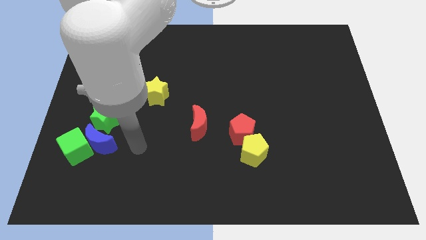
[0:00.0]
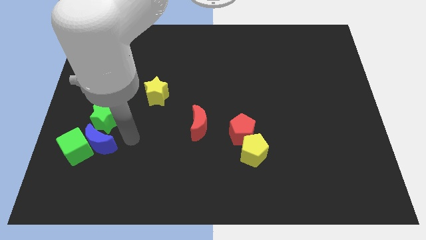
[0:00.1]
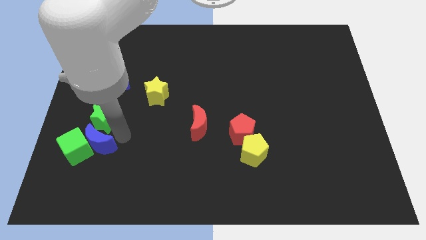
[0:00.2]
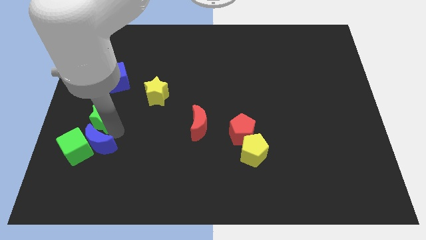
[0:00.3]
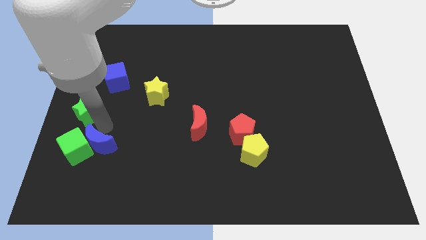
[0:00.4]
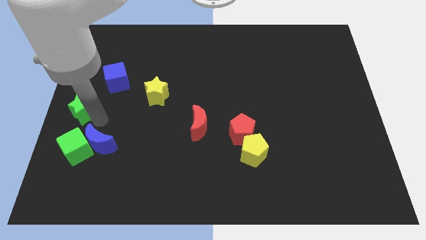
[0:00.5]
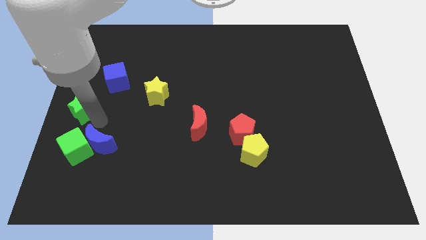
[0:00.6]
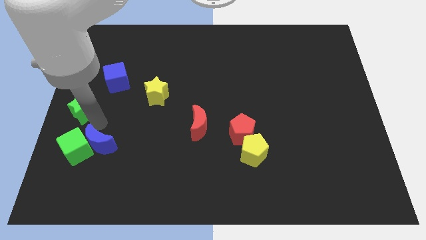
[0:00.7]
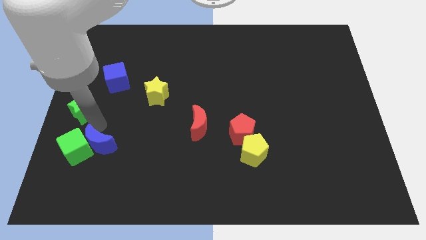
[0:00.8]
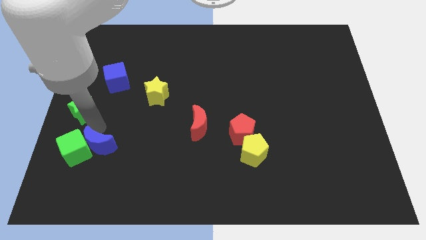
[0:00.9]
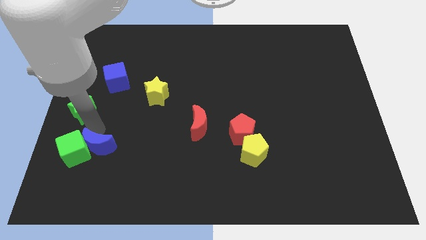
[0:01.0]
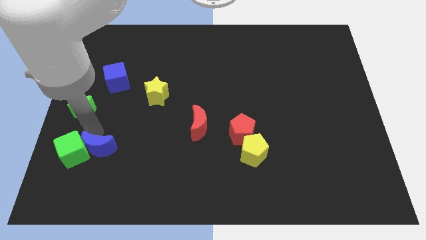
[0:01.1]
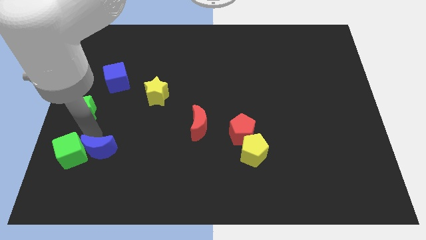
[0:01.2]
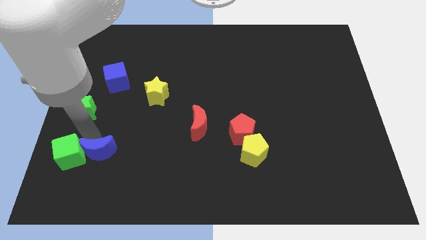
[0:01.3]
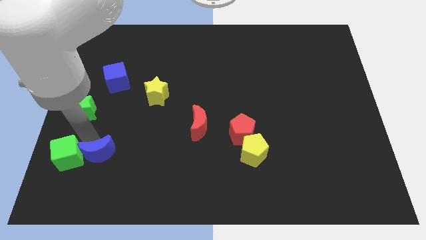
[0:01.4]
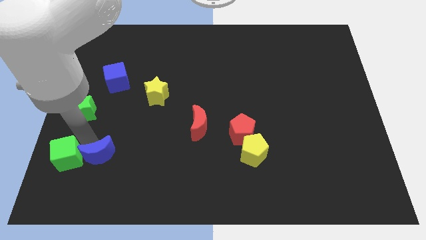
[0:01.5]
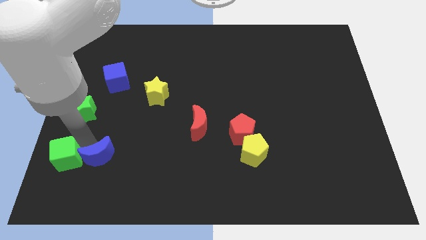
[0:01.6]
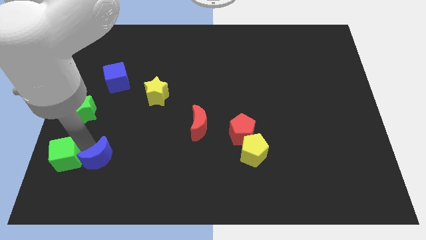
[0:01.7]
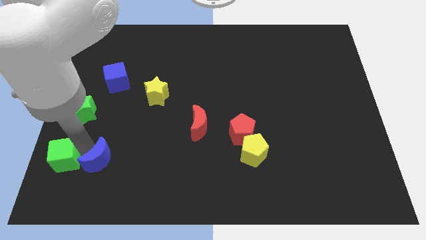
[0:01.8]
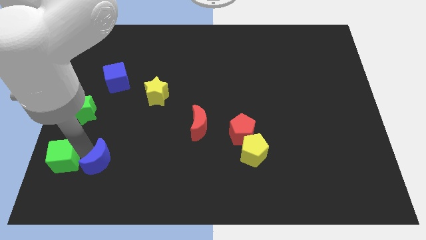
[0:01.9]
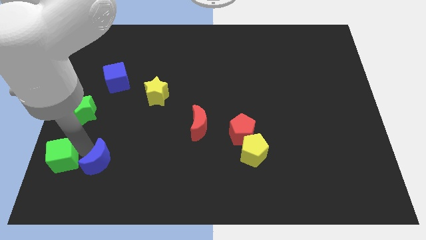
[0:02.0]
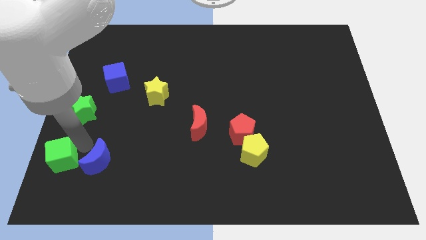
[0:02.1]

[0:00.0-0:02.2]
separate the blue moon from the green cube and green star

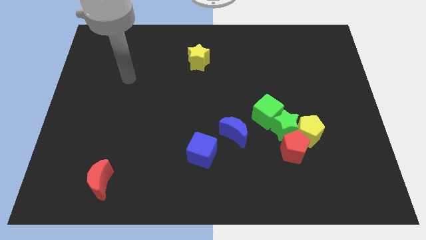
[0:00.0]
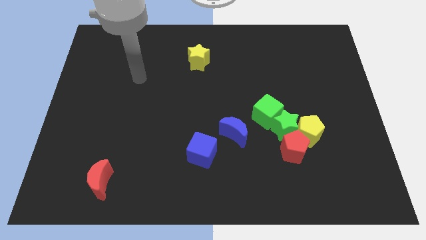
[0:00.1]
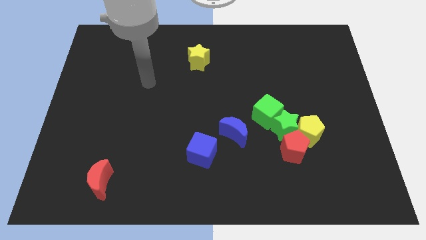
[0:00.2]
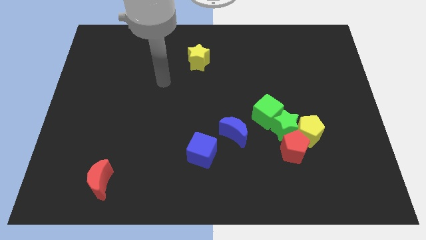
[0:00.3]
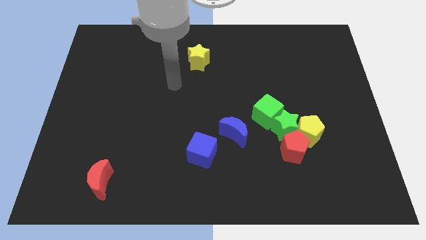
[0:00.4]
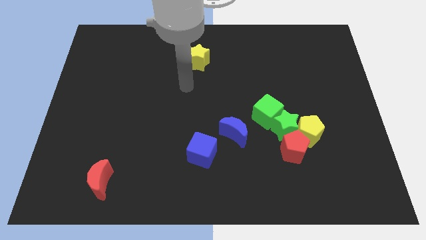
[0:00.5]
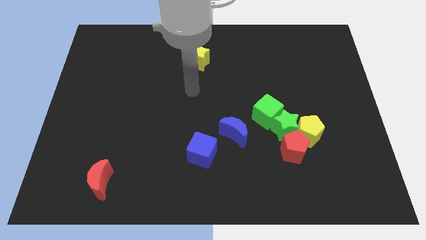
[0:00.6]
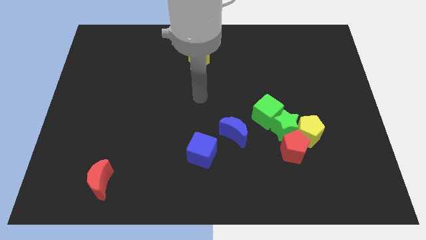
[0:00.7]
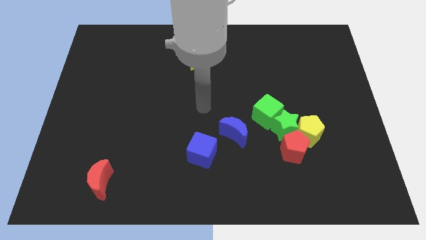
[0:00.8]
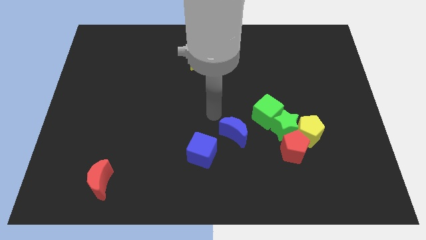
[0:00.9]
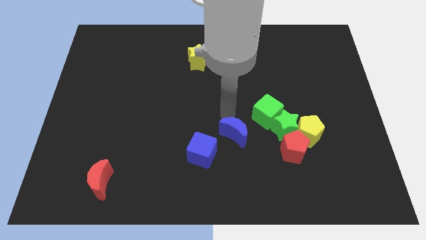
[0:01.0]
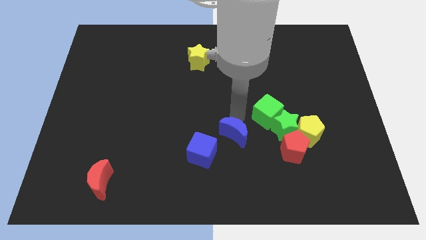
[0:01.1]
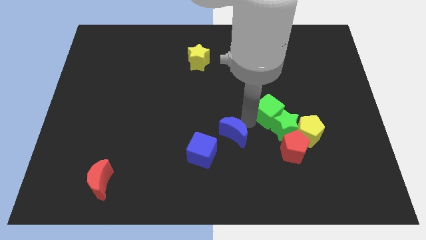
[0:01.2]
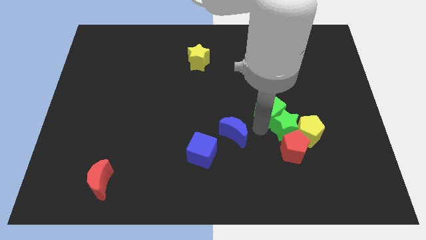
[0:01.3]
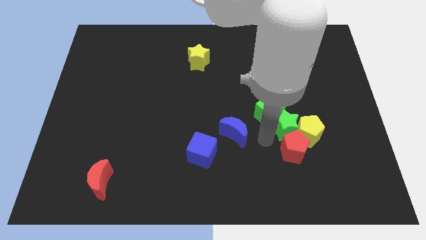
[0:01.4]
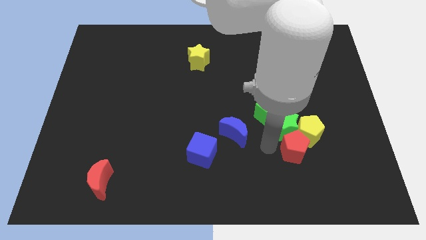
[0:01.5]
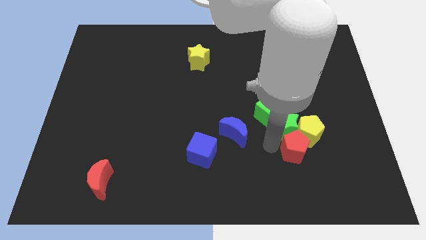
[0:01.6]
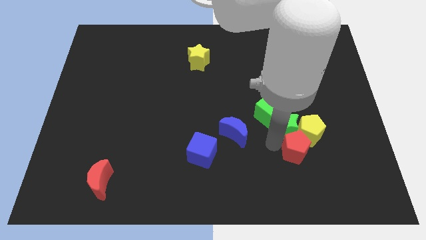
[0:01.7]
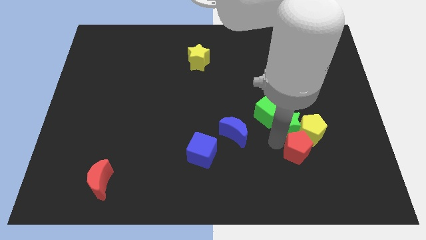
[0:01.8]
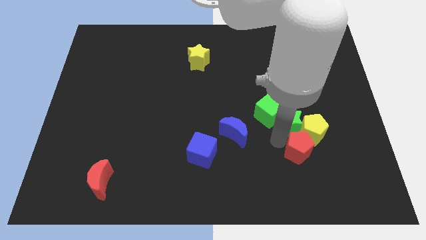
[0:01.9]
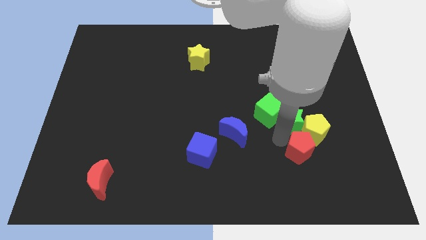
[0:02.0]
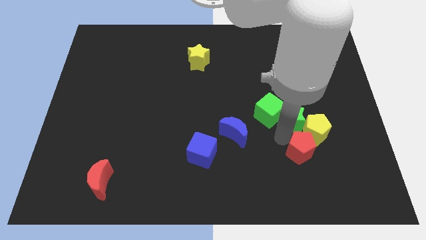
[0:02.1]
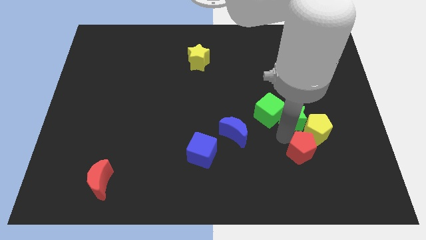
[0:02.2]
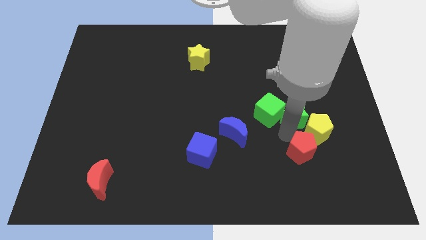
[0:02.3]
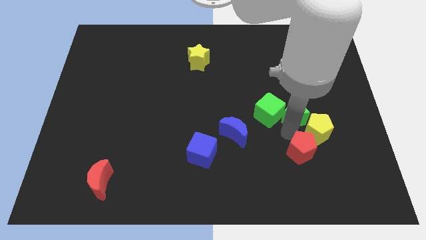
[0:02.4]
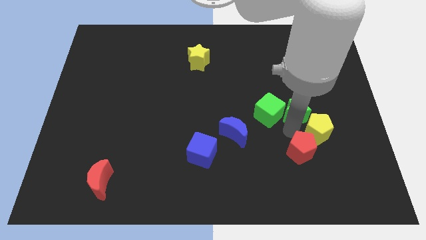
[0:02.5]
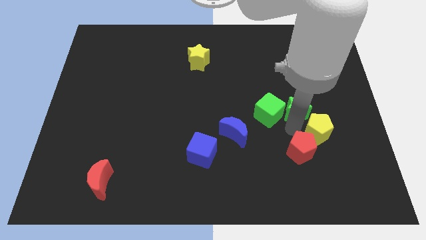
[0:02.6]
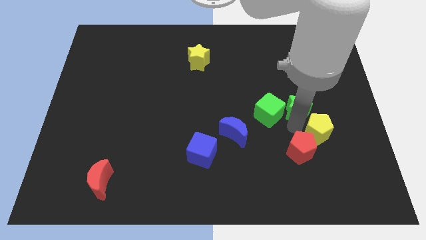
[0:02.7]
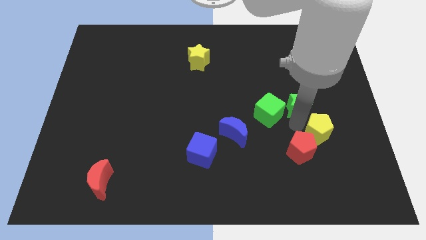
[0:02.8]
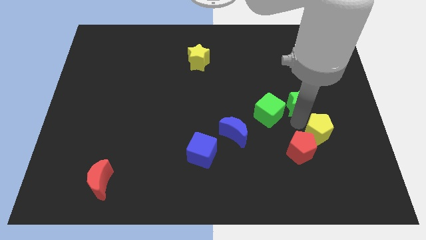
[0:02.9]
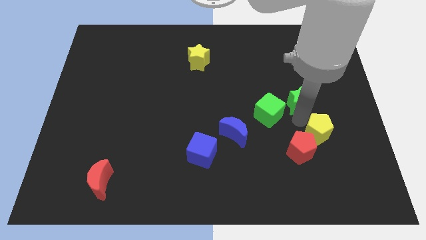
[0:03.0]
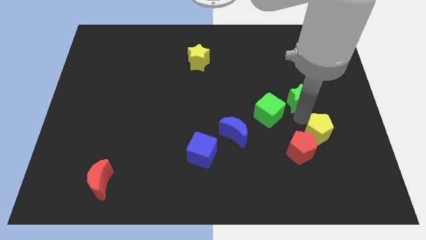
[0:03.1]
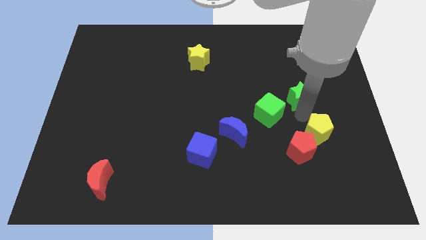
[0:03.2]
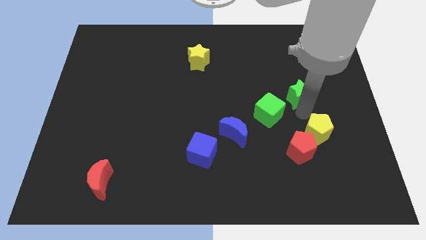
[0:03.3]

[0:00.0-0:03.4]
pull the green star apart from the clump

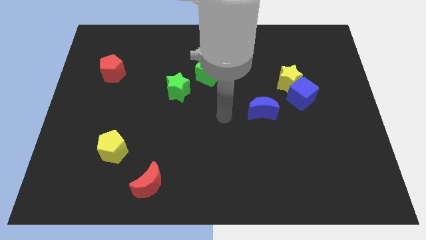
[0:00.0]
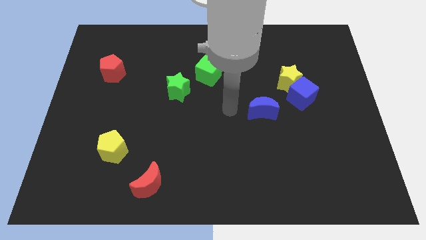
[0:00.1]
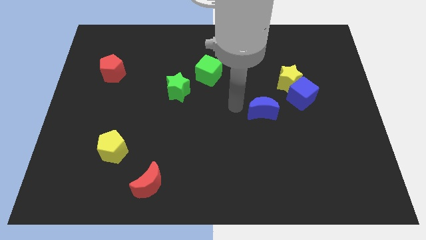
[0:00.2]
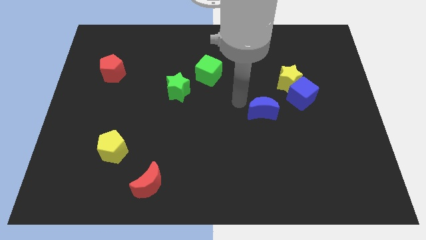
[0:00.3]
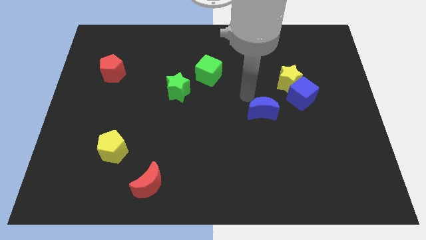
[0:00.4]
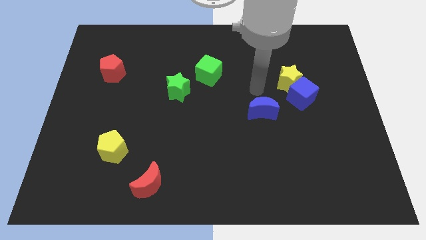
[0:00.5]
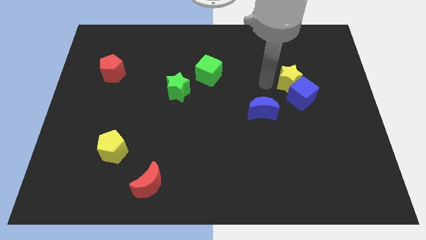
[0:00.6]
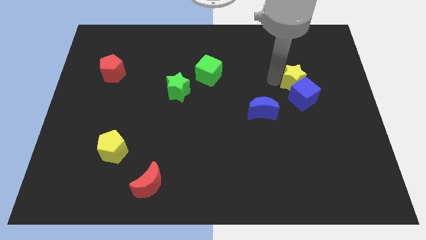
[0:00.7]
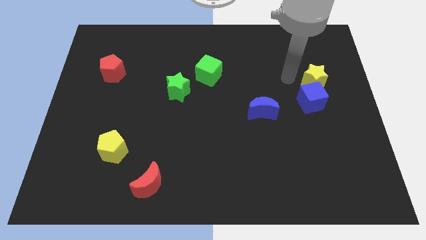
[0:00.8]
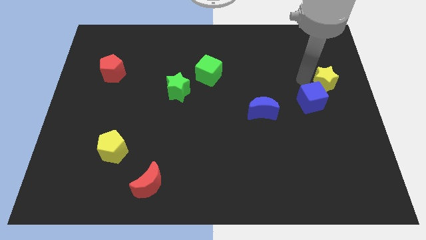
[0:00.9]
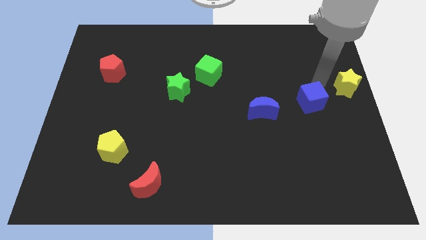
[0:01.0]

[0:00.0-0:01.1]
separate the blue cube from the yellow star

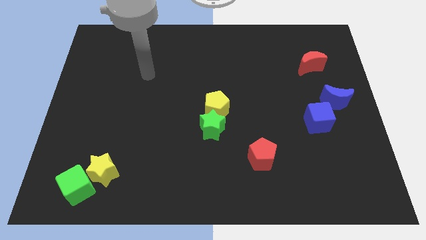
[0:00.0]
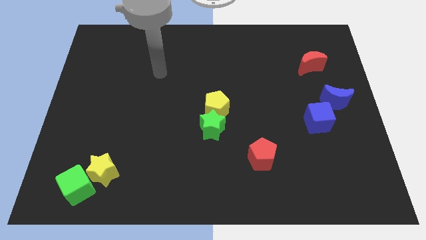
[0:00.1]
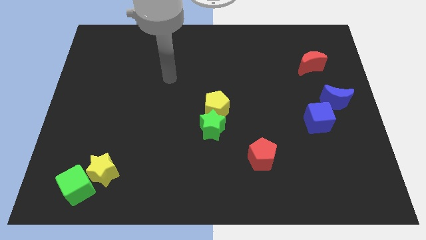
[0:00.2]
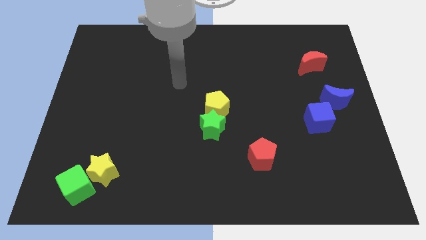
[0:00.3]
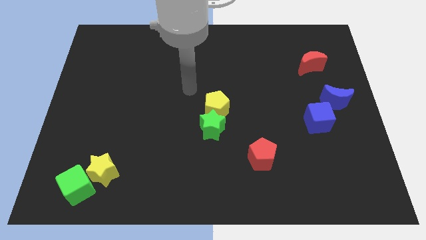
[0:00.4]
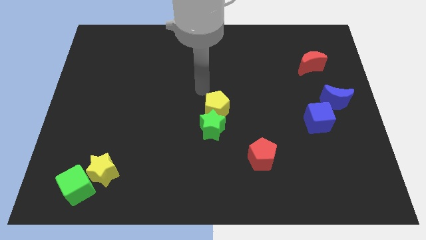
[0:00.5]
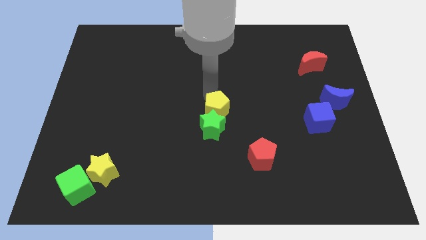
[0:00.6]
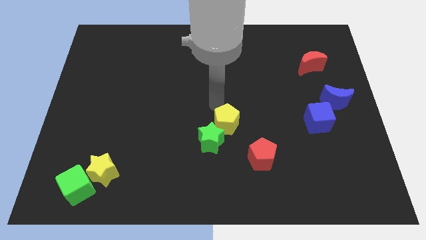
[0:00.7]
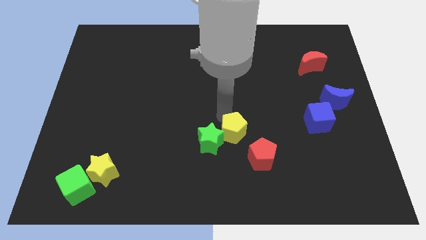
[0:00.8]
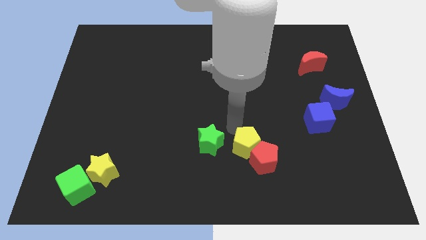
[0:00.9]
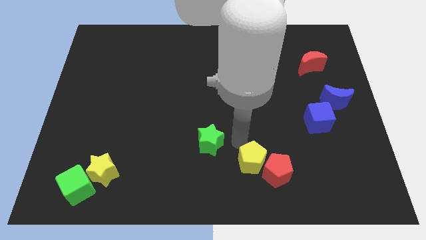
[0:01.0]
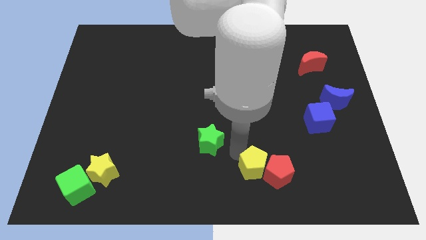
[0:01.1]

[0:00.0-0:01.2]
pull the green star apart from the yellow pentagon

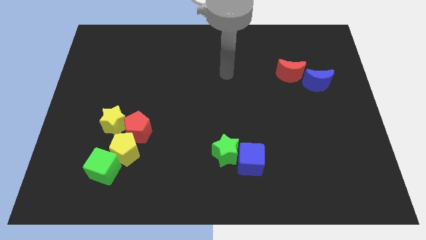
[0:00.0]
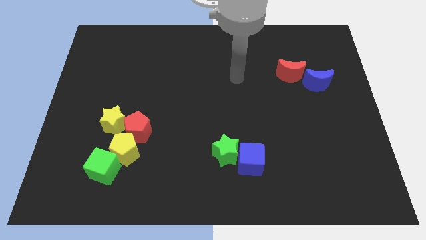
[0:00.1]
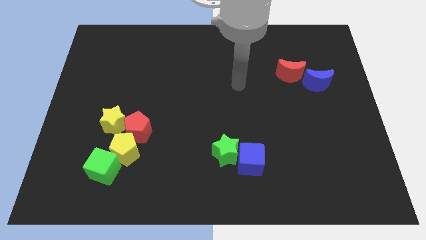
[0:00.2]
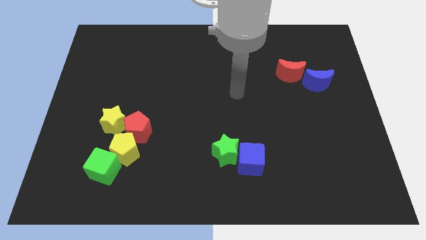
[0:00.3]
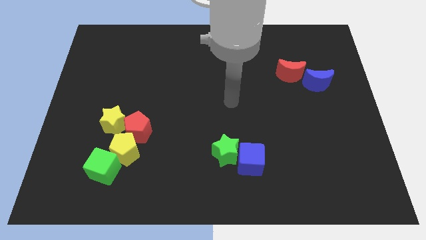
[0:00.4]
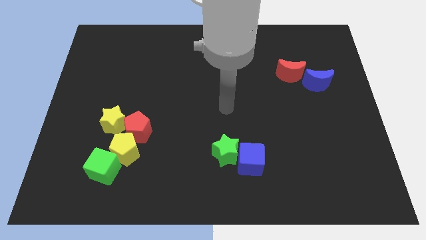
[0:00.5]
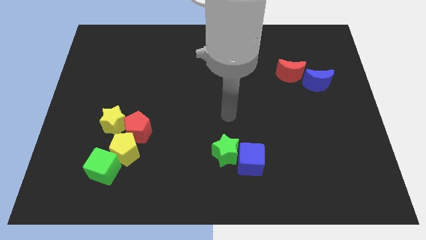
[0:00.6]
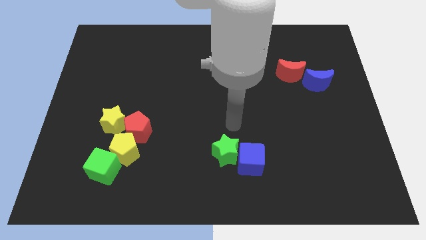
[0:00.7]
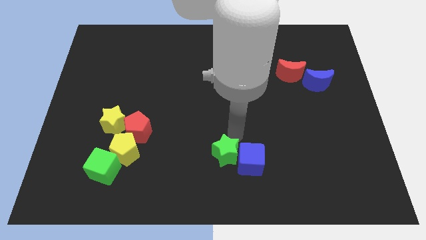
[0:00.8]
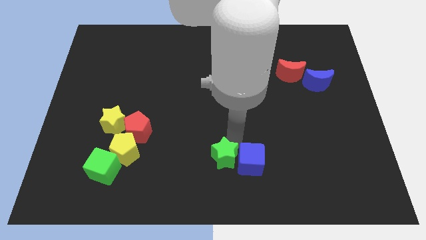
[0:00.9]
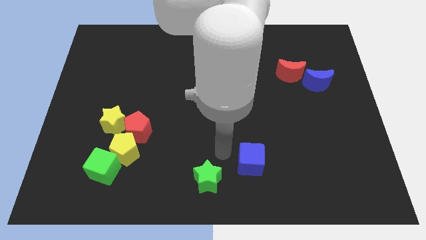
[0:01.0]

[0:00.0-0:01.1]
pull the blue cube apart from the green star

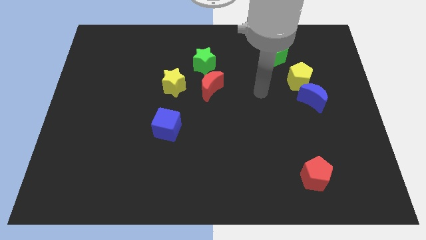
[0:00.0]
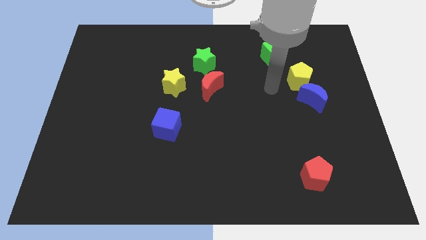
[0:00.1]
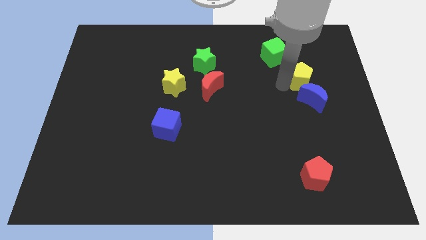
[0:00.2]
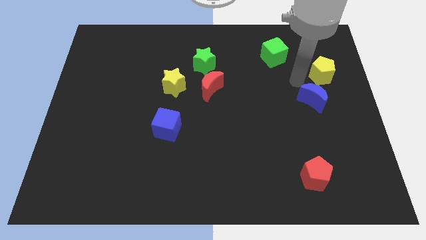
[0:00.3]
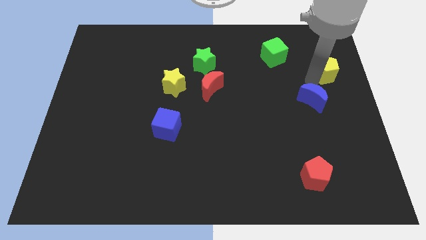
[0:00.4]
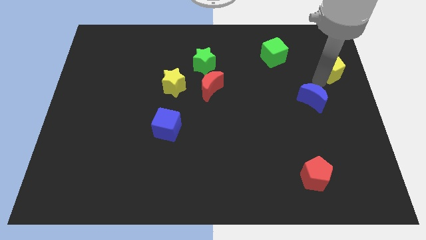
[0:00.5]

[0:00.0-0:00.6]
move the blue moon away from the yellow pentagon
